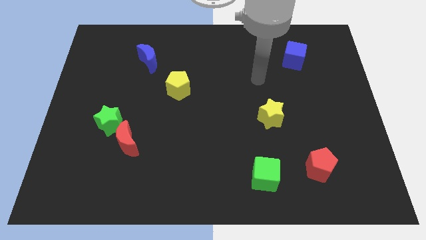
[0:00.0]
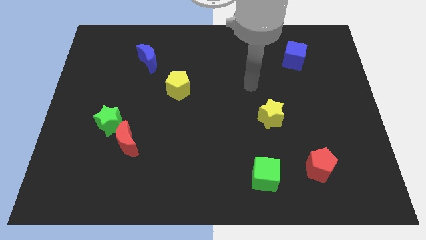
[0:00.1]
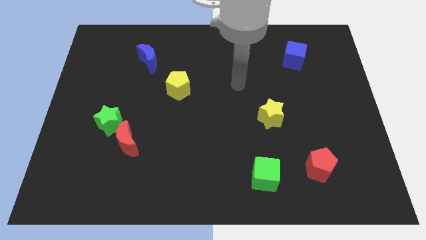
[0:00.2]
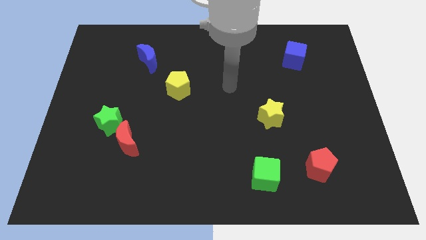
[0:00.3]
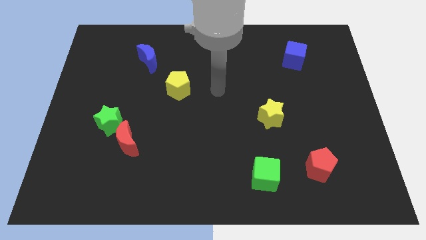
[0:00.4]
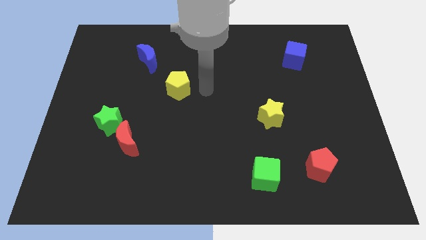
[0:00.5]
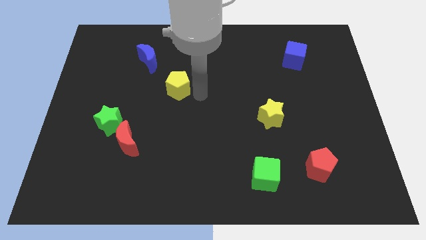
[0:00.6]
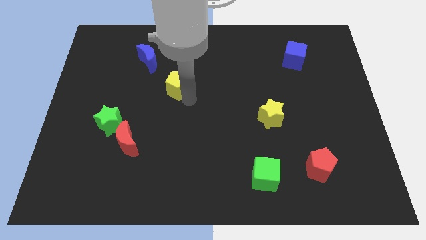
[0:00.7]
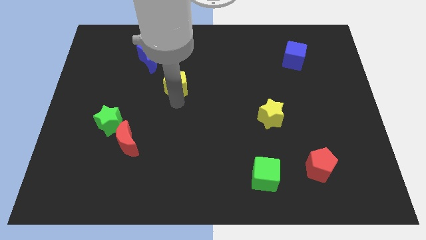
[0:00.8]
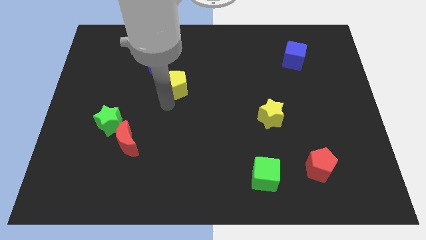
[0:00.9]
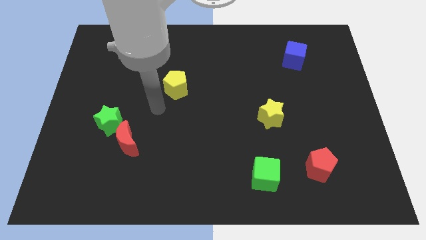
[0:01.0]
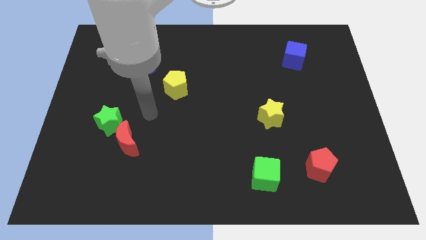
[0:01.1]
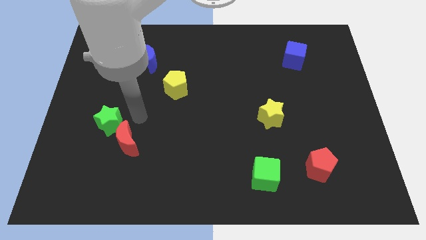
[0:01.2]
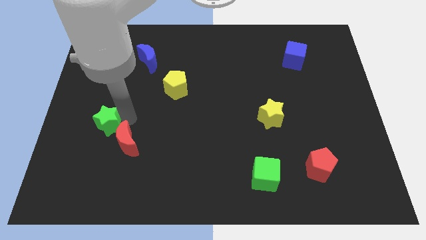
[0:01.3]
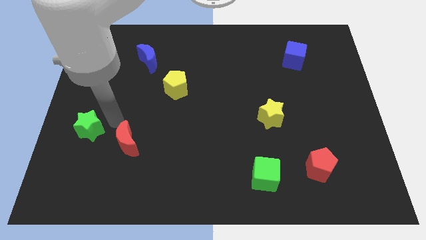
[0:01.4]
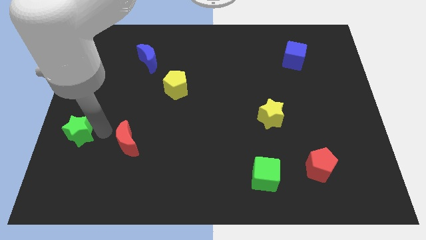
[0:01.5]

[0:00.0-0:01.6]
pull the red moon apart from the green star

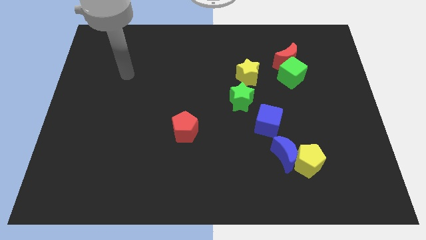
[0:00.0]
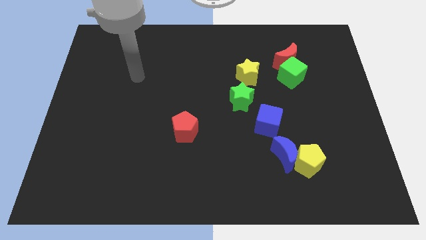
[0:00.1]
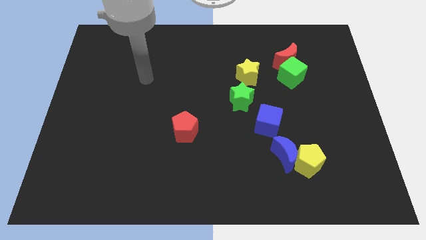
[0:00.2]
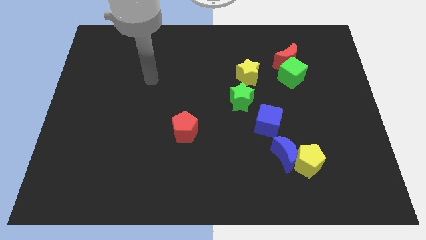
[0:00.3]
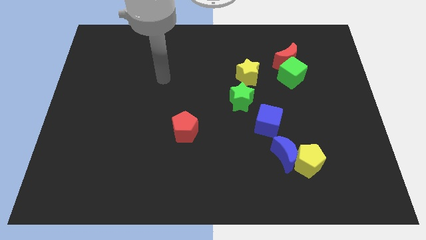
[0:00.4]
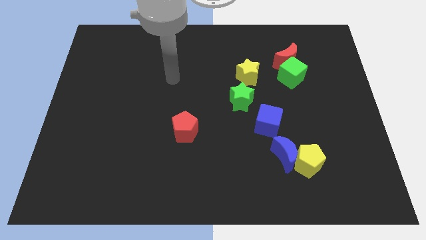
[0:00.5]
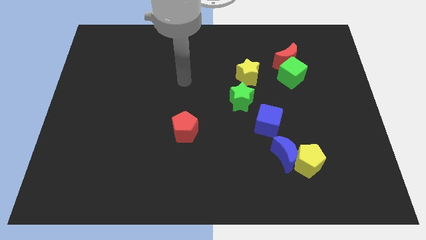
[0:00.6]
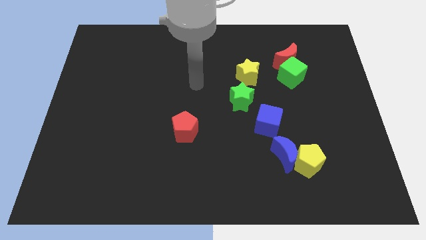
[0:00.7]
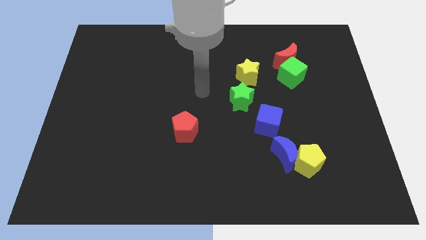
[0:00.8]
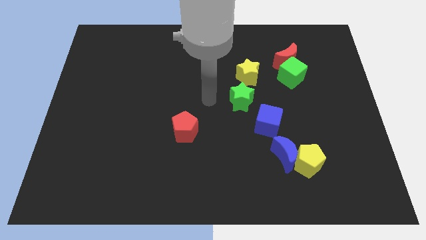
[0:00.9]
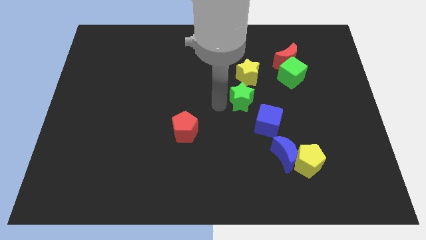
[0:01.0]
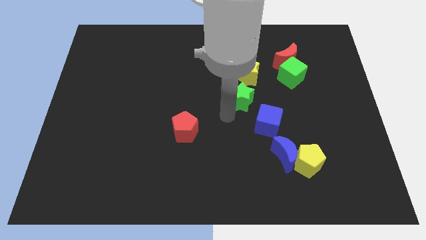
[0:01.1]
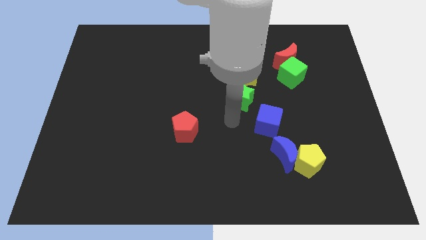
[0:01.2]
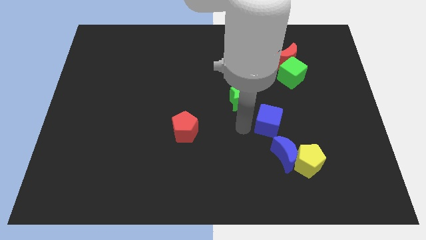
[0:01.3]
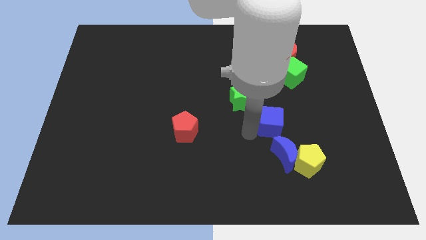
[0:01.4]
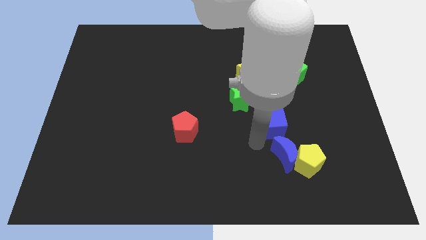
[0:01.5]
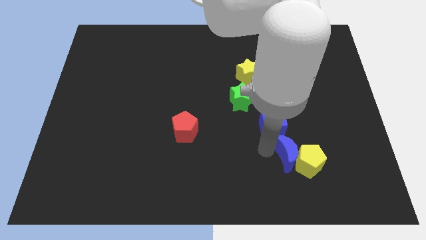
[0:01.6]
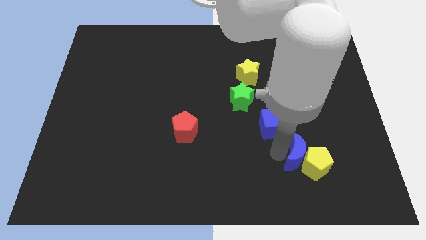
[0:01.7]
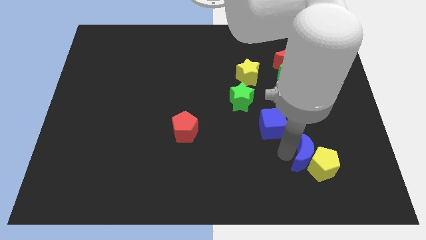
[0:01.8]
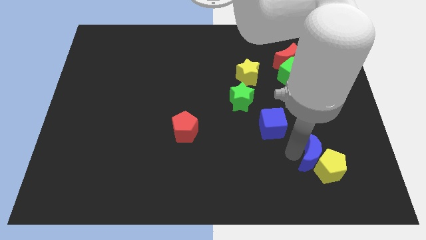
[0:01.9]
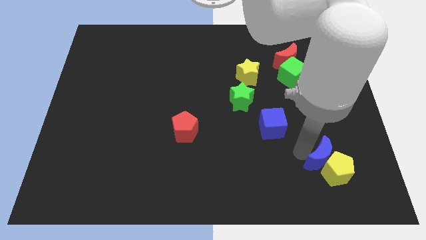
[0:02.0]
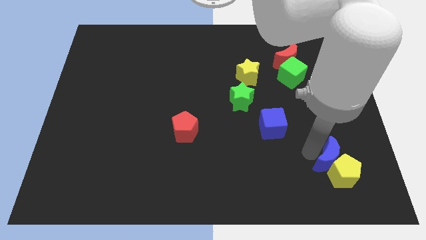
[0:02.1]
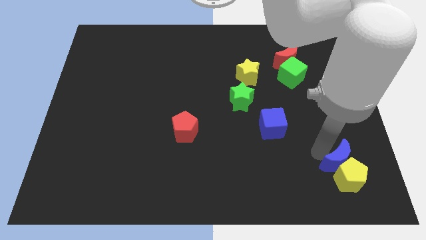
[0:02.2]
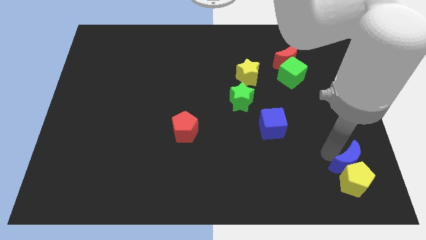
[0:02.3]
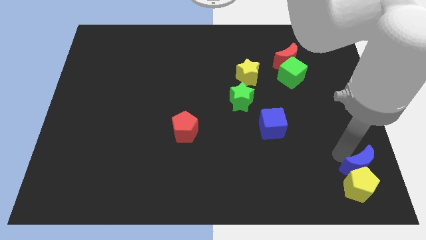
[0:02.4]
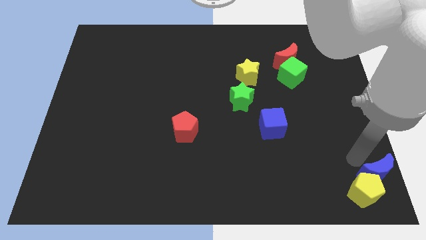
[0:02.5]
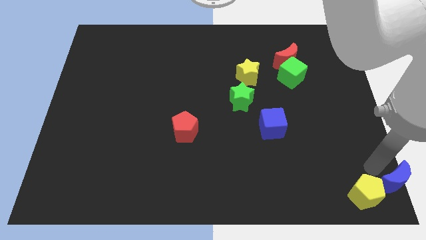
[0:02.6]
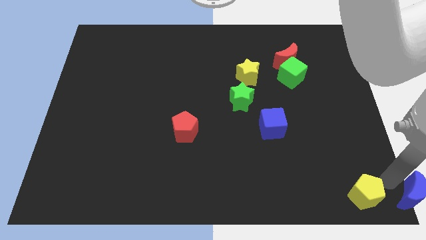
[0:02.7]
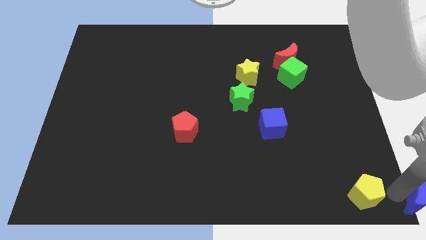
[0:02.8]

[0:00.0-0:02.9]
move the yellow pentagon away from the blue moon

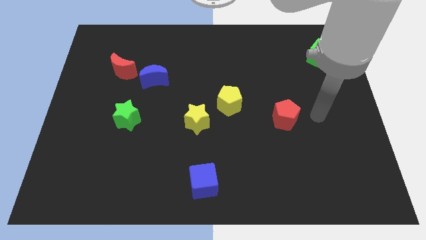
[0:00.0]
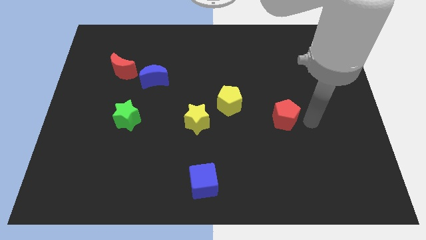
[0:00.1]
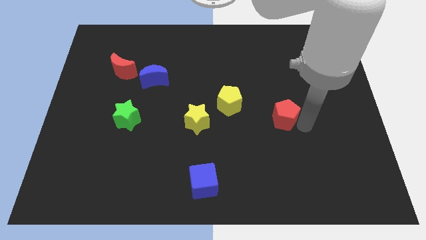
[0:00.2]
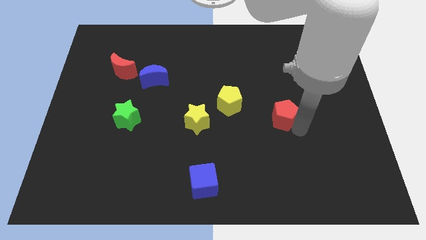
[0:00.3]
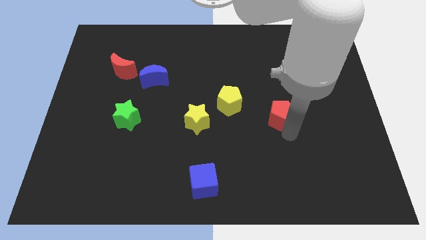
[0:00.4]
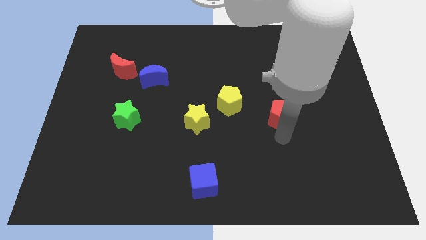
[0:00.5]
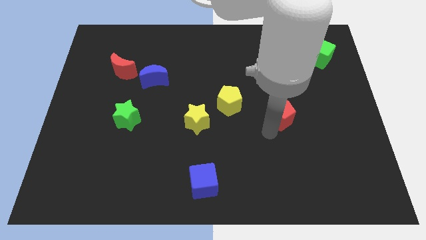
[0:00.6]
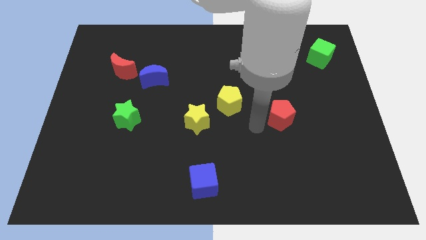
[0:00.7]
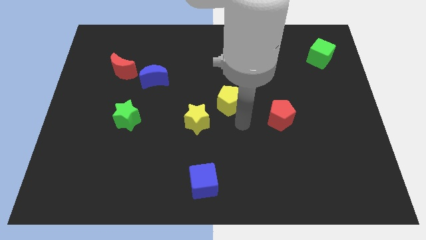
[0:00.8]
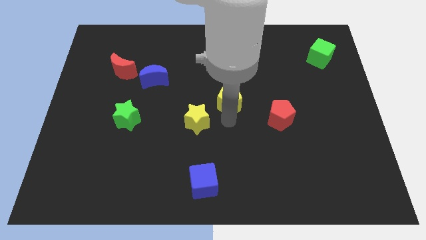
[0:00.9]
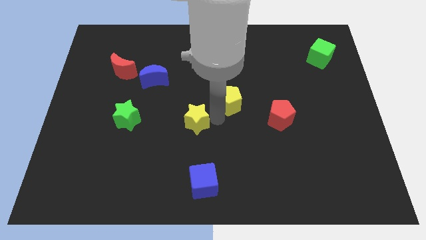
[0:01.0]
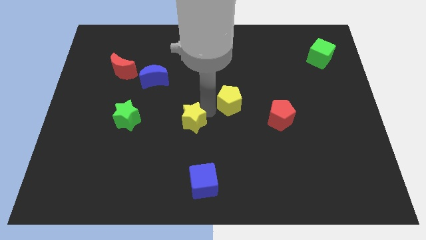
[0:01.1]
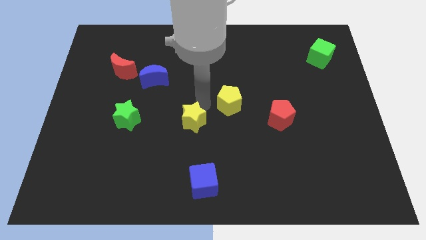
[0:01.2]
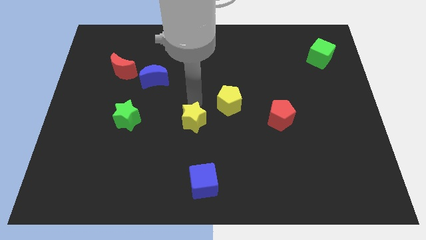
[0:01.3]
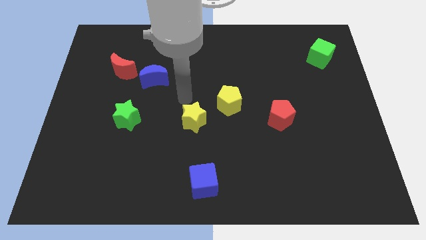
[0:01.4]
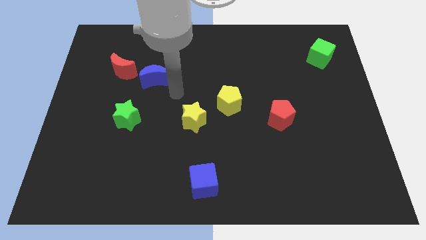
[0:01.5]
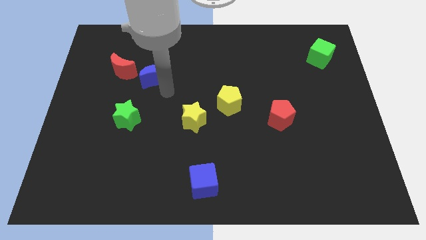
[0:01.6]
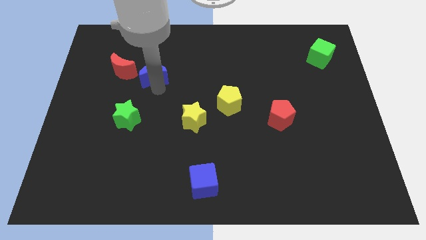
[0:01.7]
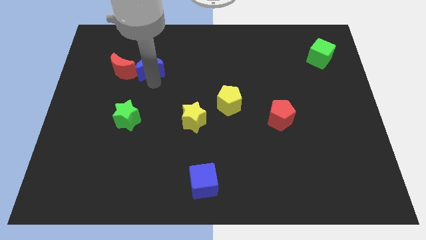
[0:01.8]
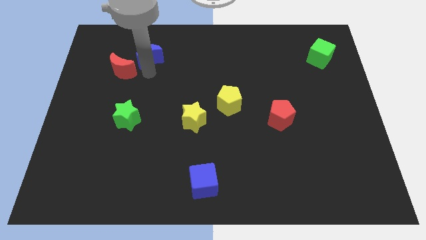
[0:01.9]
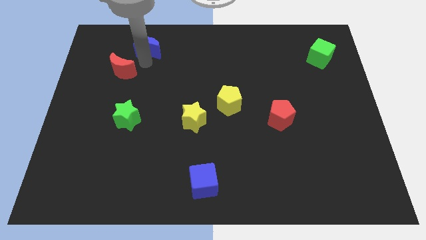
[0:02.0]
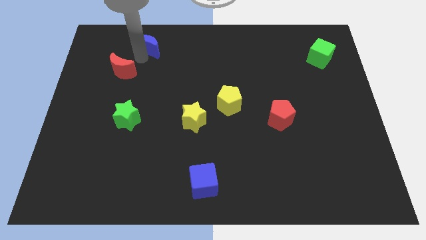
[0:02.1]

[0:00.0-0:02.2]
move the red moon away from the blue moon

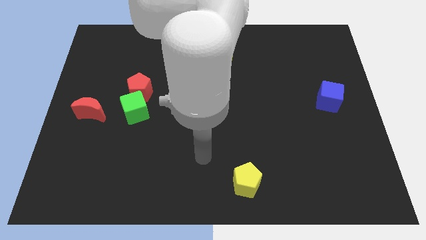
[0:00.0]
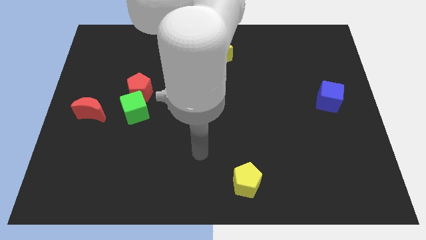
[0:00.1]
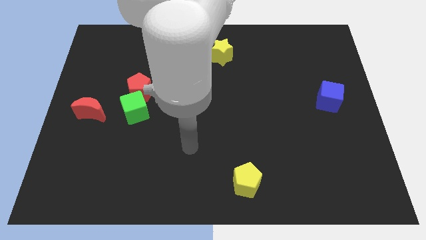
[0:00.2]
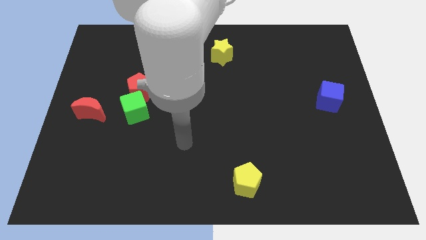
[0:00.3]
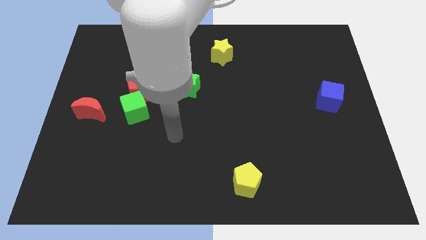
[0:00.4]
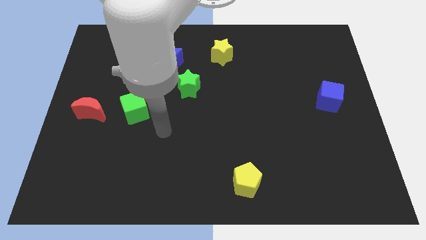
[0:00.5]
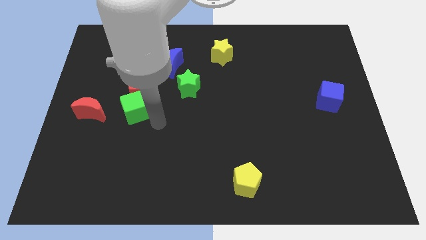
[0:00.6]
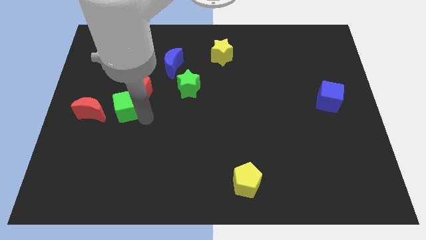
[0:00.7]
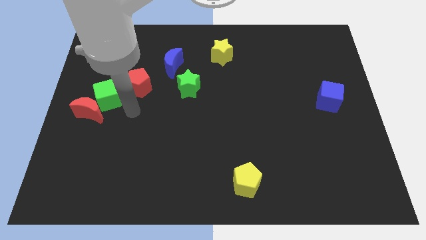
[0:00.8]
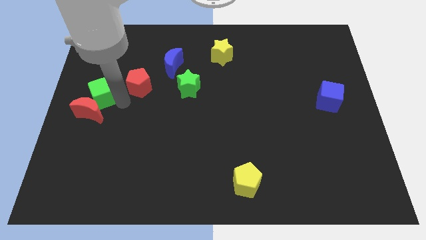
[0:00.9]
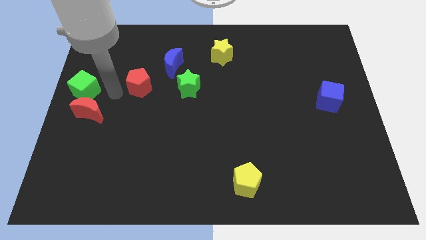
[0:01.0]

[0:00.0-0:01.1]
pull the red pentagon apart from the green cube

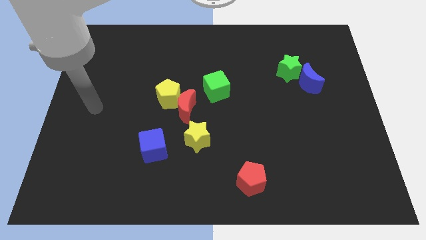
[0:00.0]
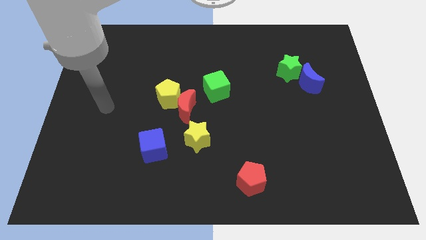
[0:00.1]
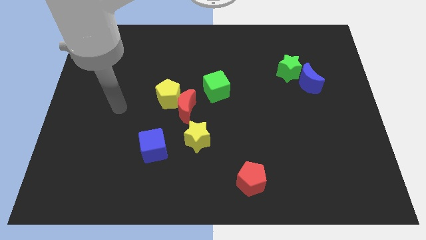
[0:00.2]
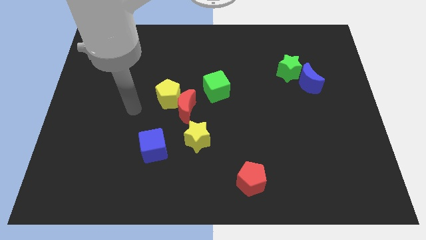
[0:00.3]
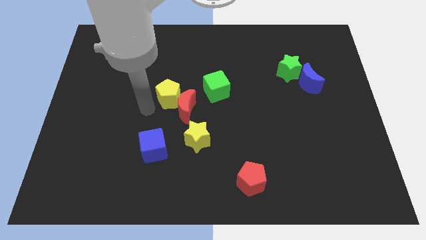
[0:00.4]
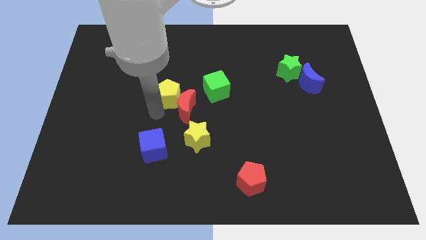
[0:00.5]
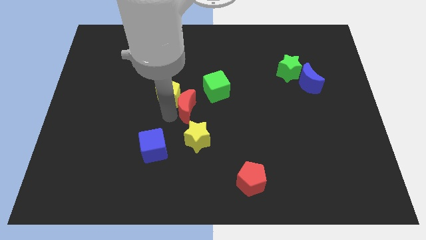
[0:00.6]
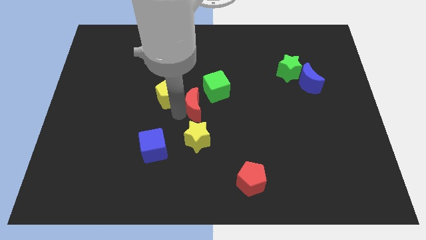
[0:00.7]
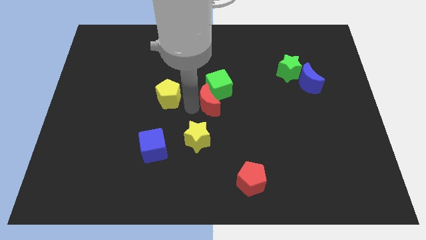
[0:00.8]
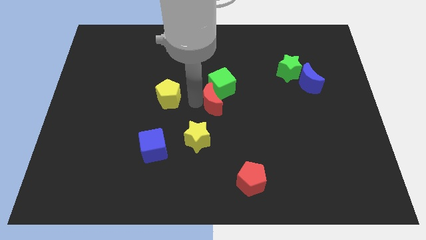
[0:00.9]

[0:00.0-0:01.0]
pull the yellow pentagon apart from the red moon

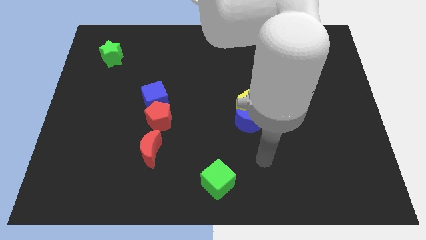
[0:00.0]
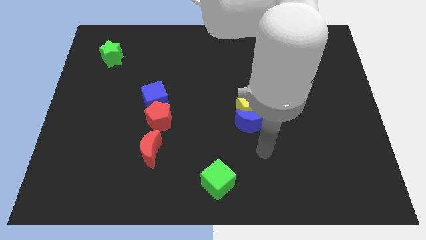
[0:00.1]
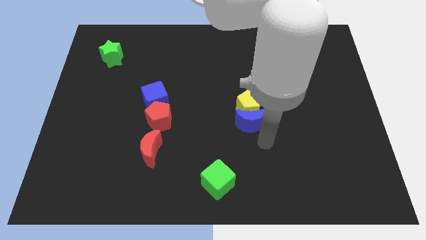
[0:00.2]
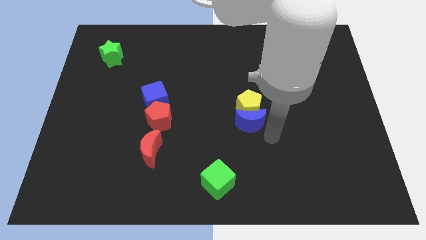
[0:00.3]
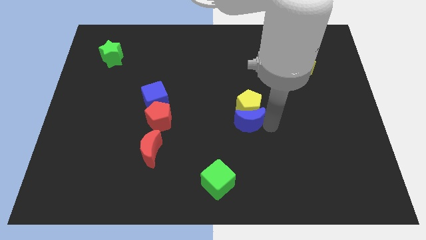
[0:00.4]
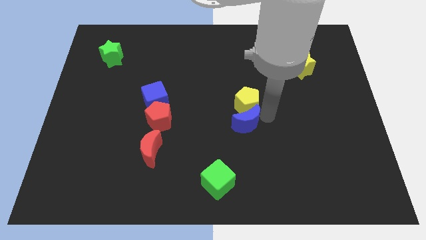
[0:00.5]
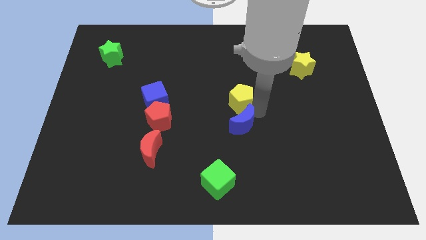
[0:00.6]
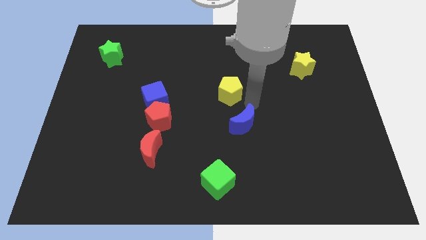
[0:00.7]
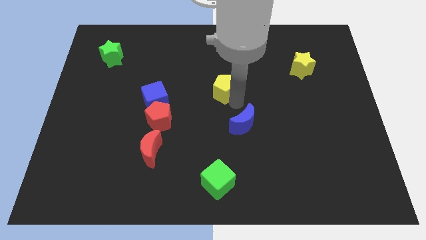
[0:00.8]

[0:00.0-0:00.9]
separate the blue moon from the yellow pentagon
